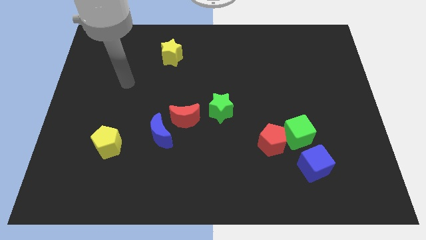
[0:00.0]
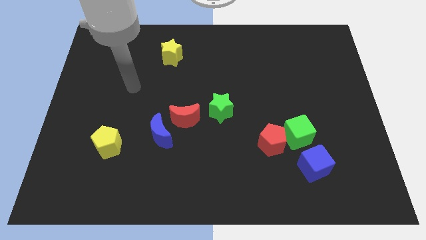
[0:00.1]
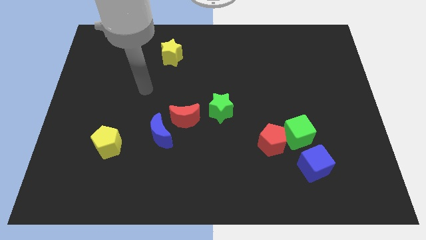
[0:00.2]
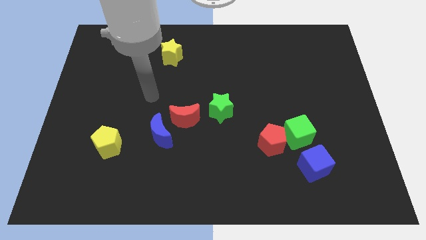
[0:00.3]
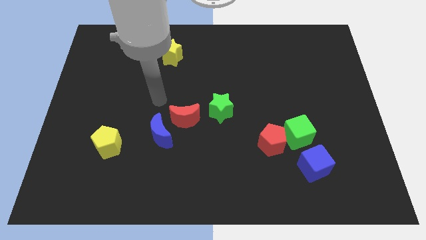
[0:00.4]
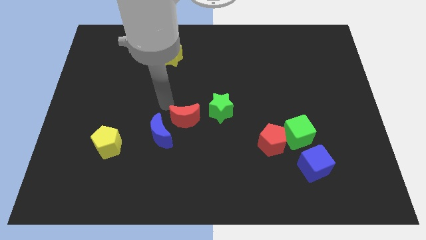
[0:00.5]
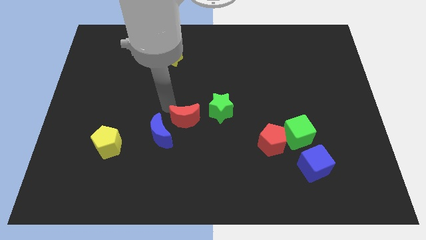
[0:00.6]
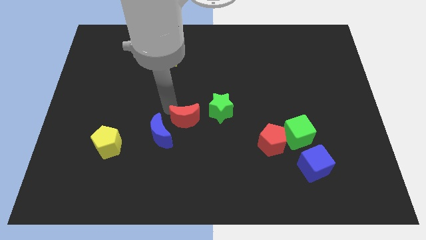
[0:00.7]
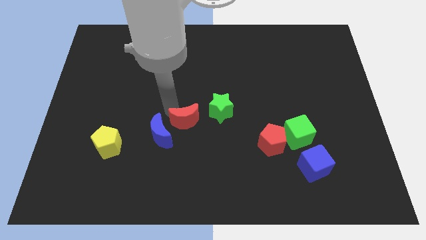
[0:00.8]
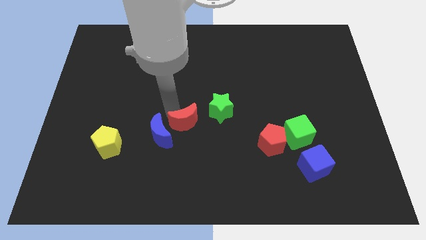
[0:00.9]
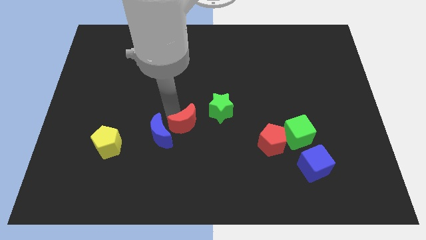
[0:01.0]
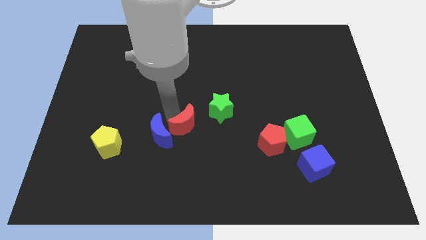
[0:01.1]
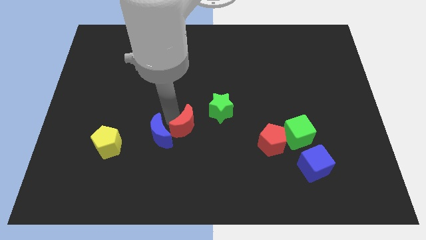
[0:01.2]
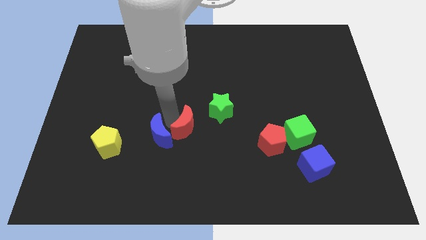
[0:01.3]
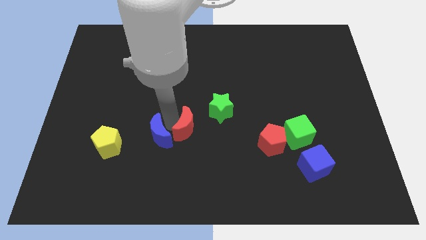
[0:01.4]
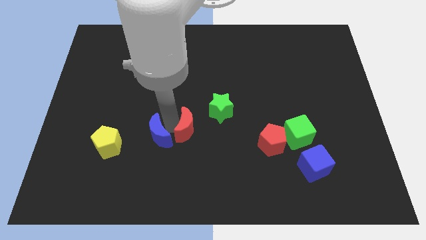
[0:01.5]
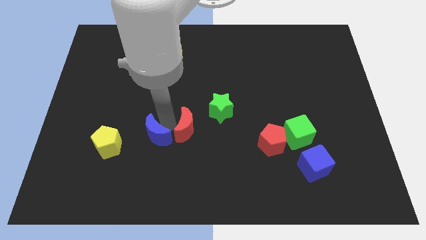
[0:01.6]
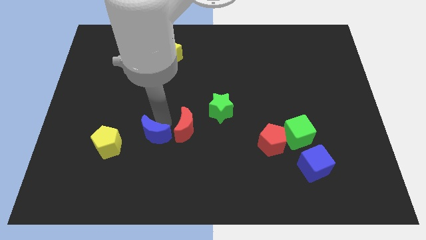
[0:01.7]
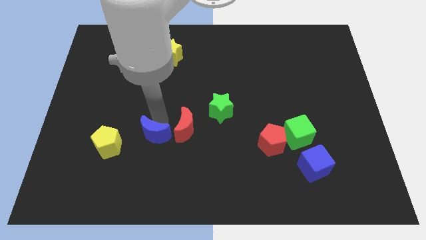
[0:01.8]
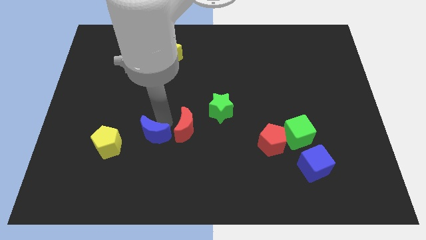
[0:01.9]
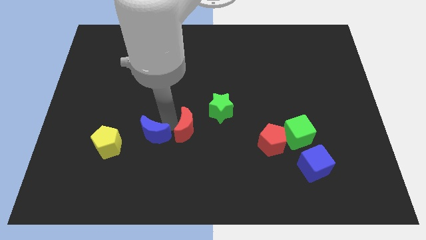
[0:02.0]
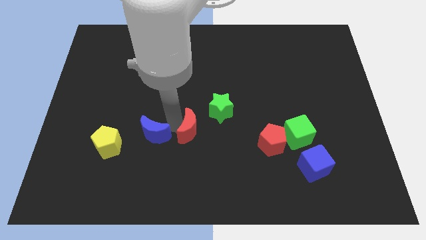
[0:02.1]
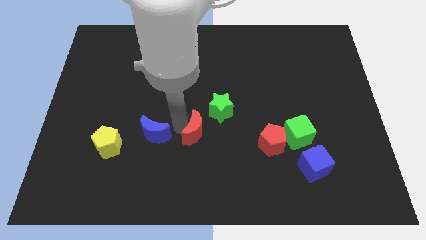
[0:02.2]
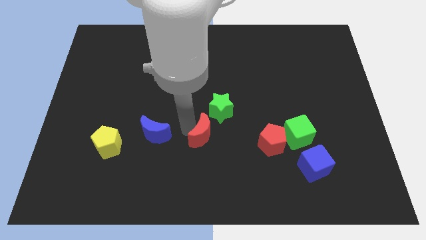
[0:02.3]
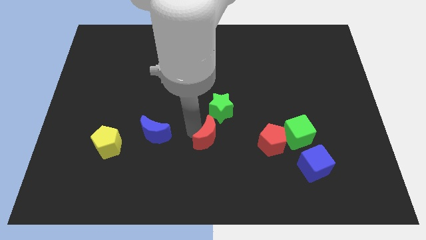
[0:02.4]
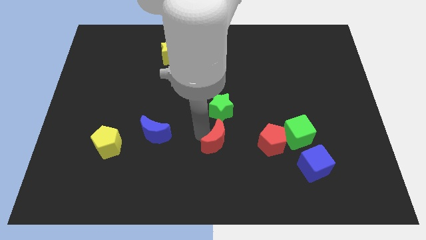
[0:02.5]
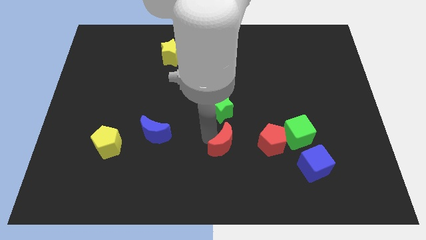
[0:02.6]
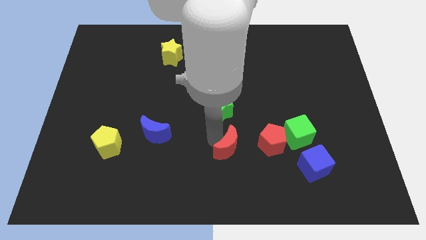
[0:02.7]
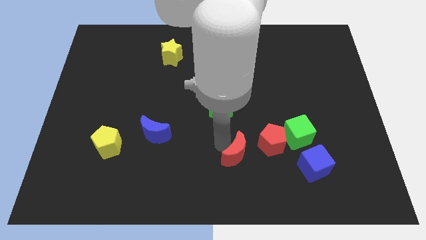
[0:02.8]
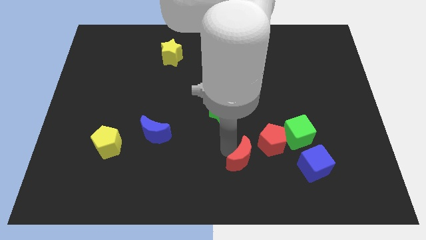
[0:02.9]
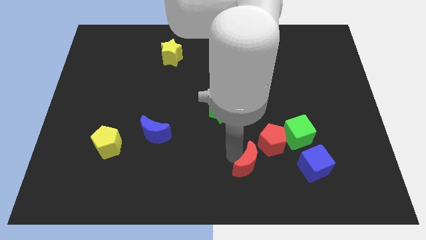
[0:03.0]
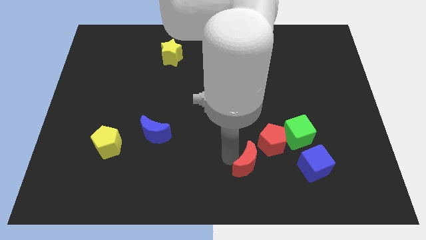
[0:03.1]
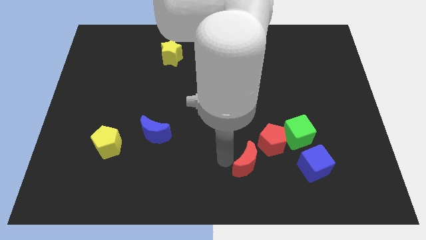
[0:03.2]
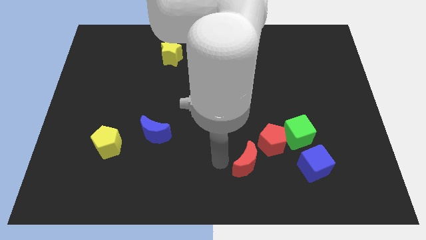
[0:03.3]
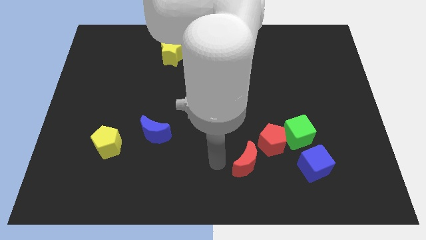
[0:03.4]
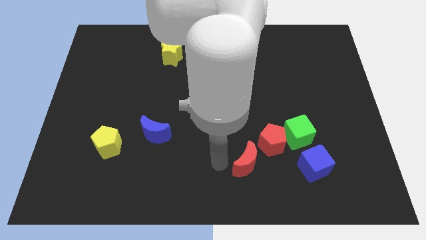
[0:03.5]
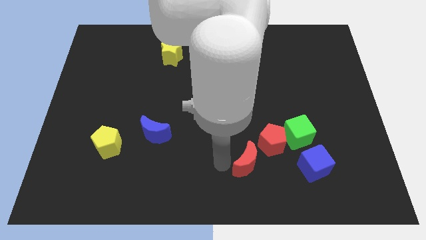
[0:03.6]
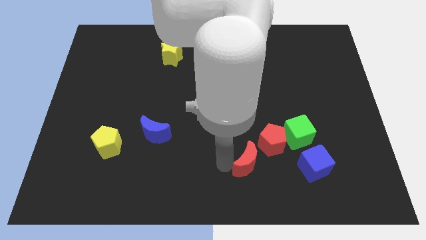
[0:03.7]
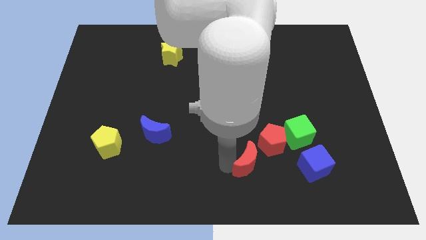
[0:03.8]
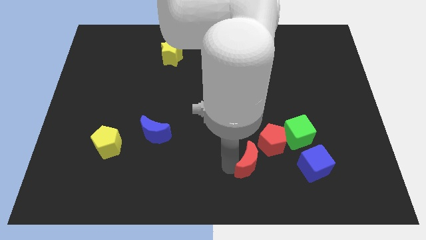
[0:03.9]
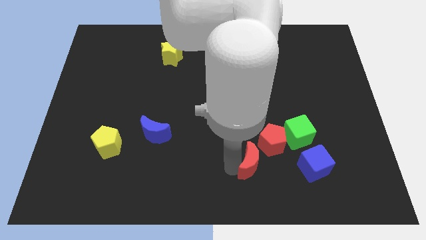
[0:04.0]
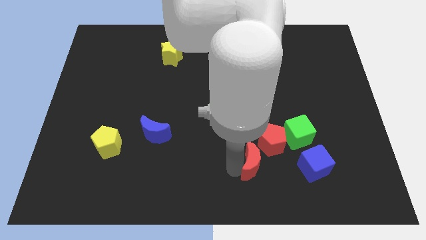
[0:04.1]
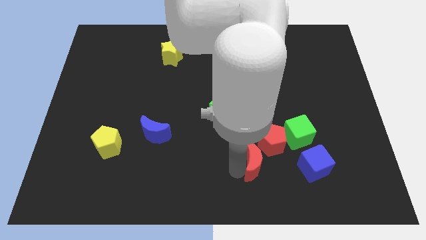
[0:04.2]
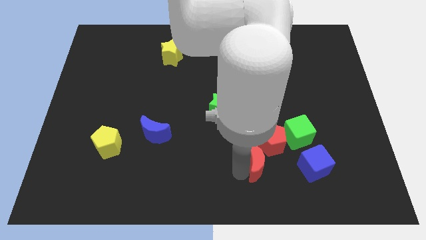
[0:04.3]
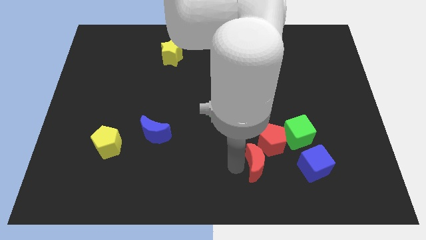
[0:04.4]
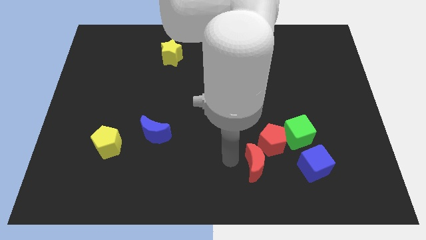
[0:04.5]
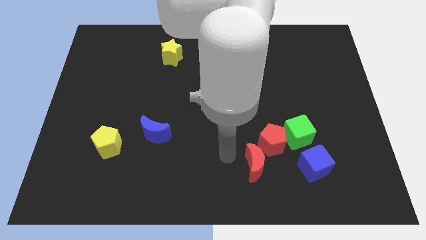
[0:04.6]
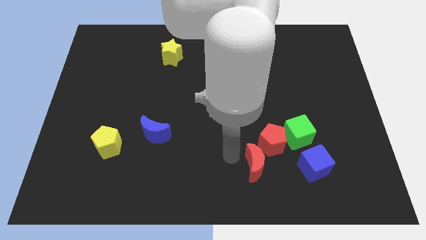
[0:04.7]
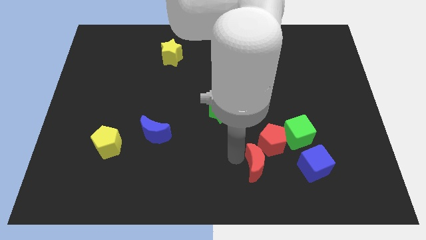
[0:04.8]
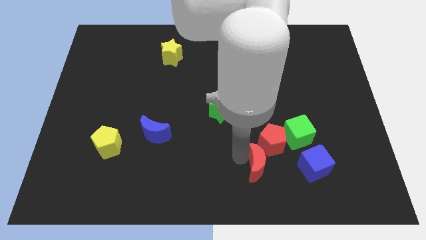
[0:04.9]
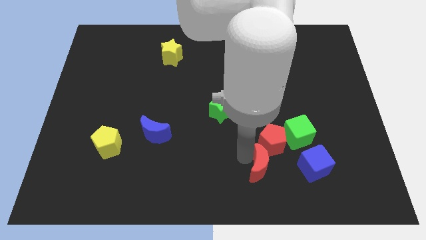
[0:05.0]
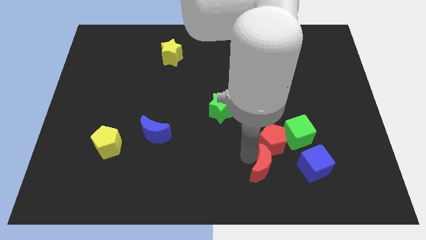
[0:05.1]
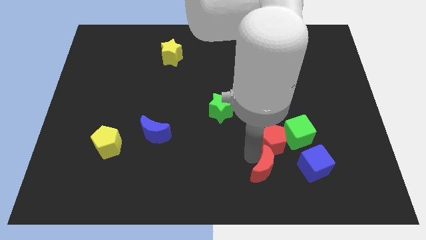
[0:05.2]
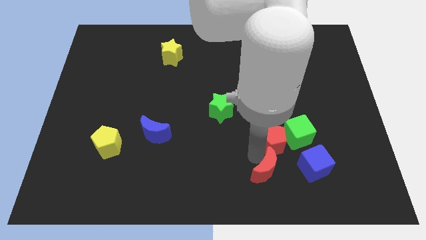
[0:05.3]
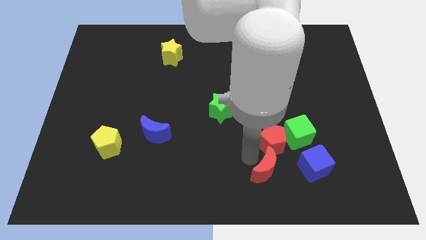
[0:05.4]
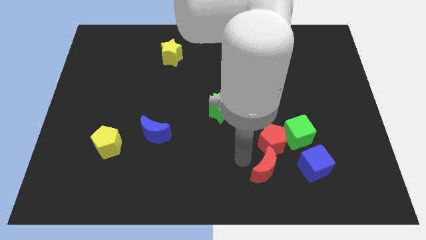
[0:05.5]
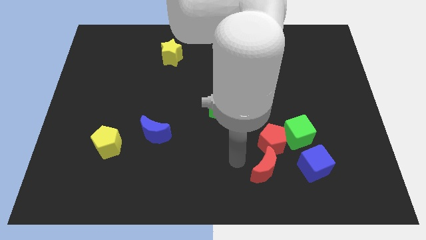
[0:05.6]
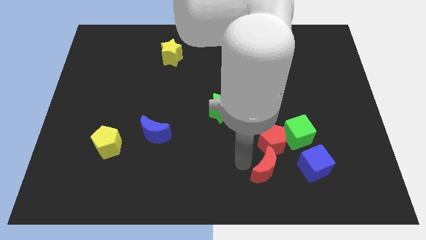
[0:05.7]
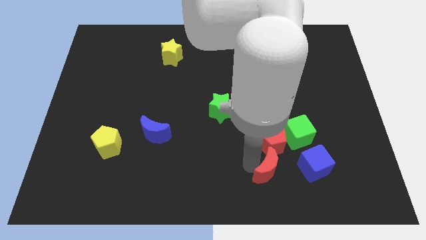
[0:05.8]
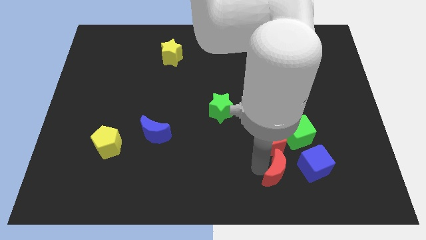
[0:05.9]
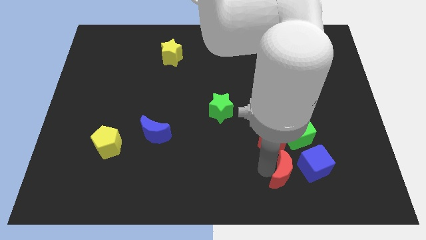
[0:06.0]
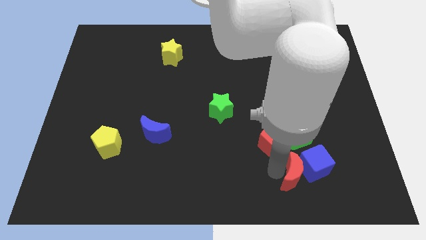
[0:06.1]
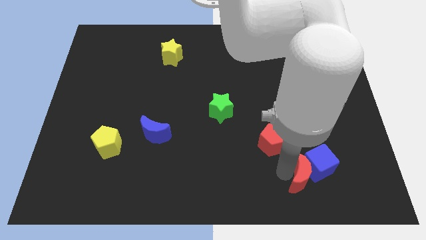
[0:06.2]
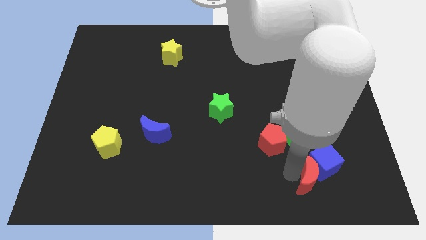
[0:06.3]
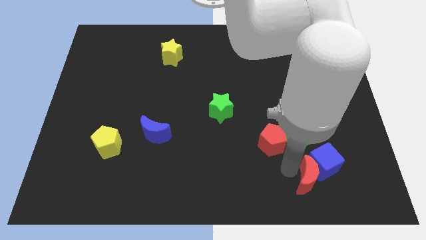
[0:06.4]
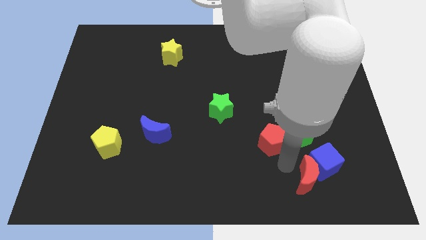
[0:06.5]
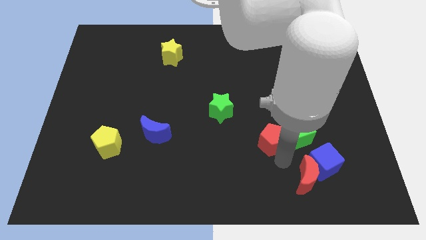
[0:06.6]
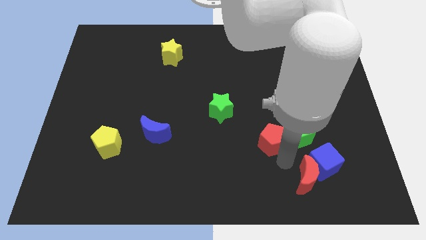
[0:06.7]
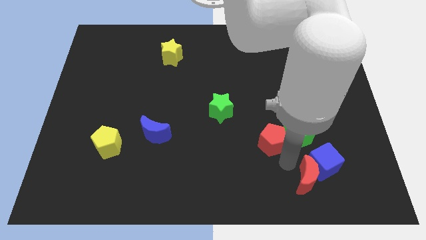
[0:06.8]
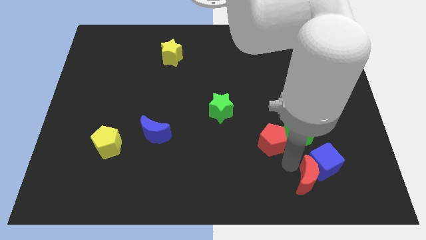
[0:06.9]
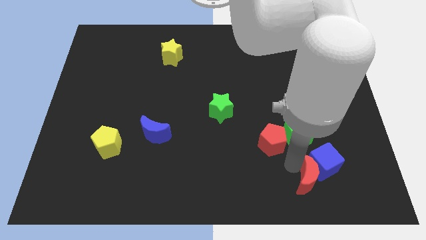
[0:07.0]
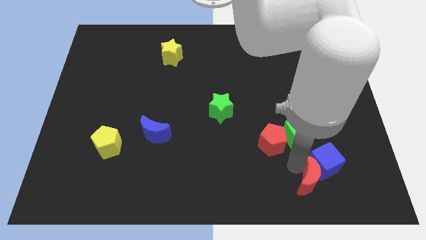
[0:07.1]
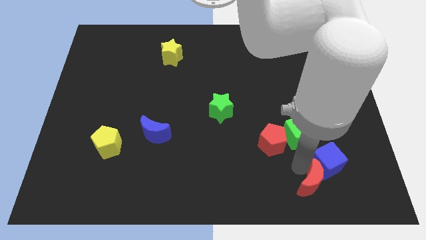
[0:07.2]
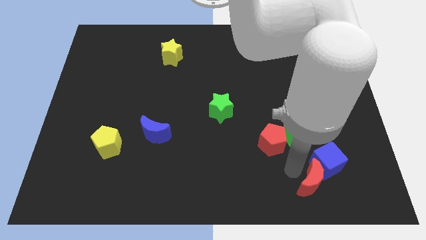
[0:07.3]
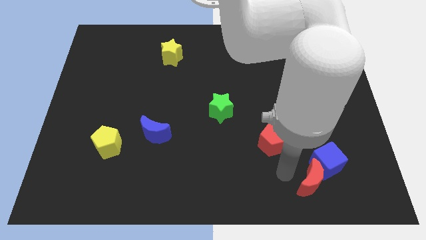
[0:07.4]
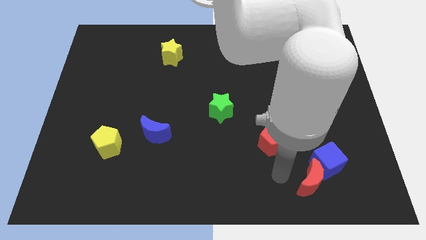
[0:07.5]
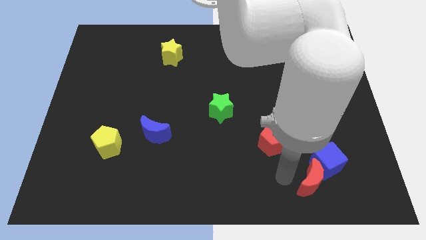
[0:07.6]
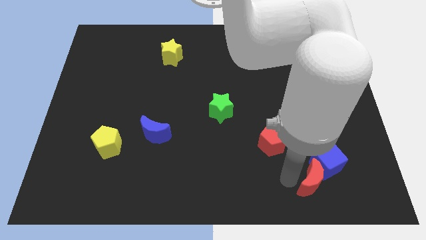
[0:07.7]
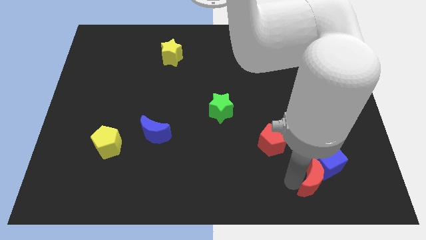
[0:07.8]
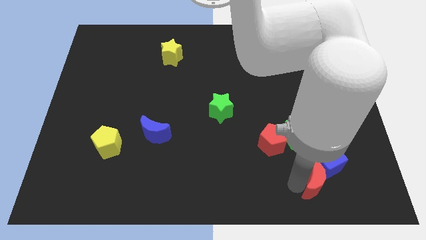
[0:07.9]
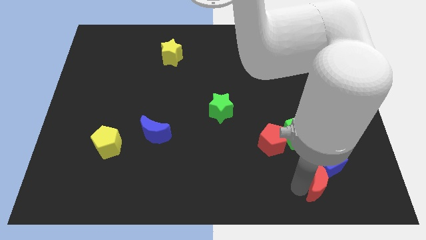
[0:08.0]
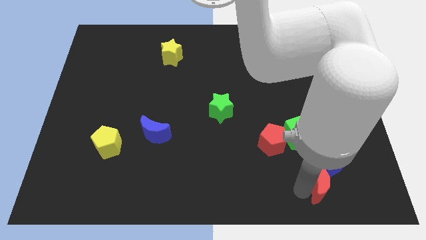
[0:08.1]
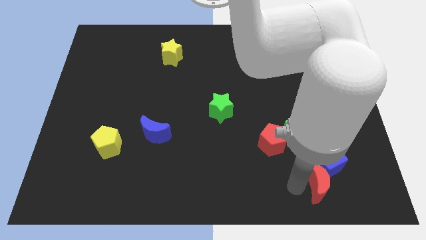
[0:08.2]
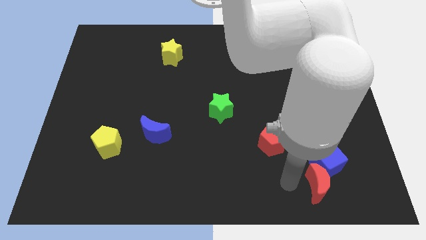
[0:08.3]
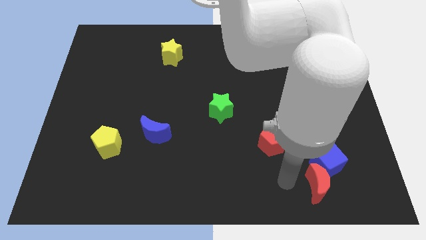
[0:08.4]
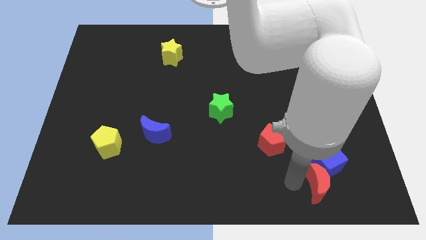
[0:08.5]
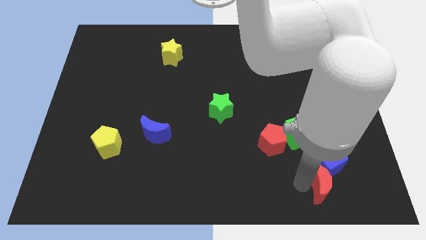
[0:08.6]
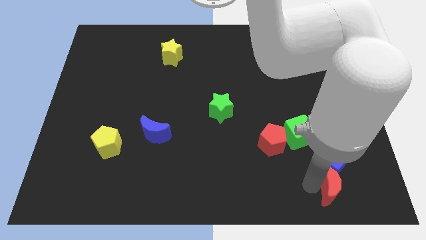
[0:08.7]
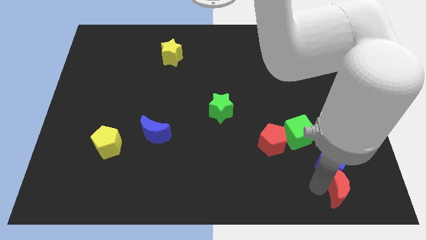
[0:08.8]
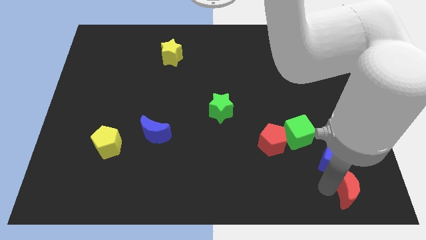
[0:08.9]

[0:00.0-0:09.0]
put the red moon to the bottom right corner
